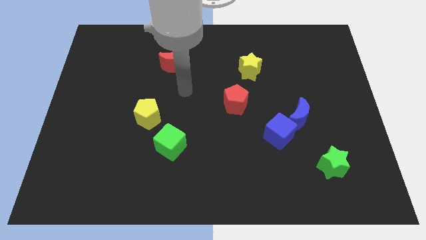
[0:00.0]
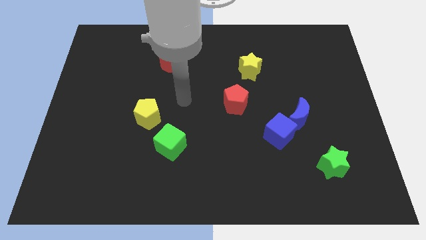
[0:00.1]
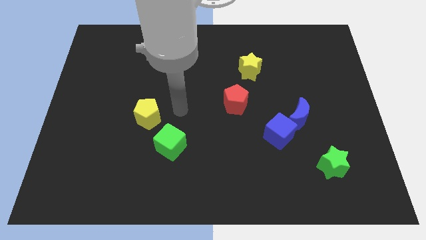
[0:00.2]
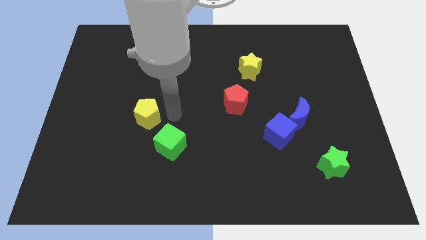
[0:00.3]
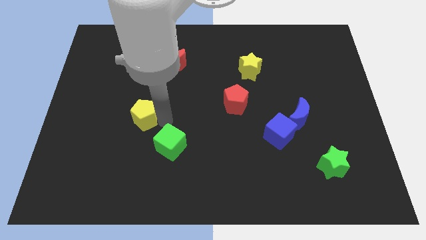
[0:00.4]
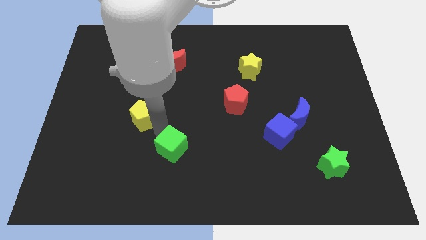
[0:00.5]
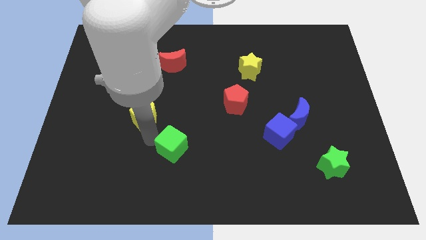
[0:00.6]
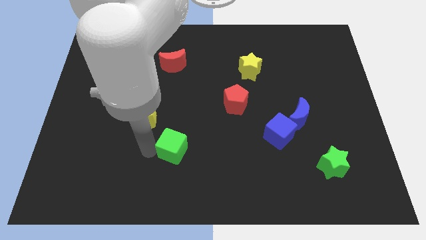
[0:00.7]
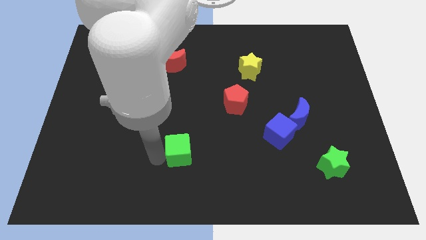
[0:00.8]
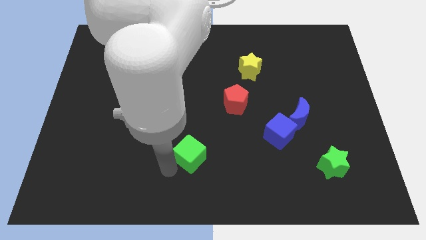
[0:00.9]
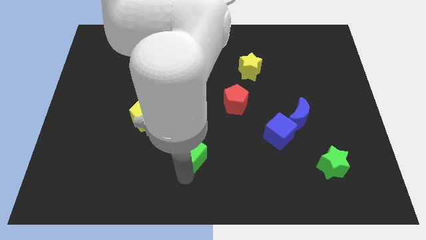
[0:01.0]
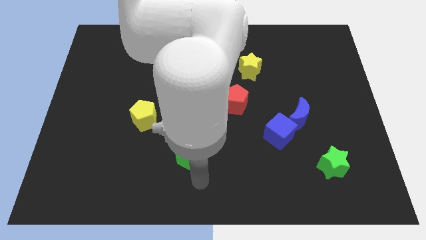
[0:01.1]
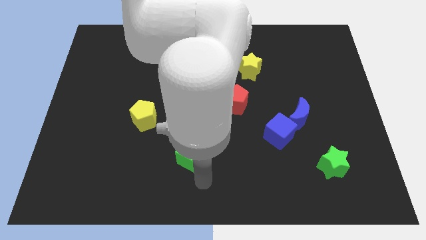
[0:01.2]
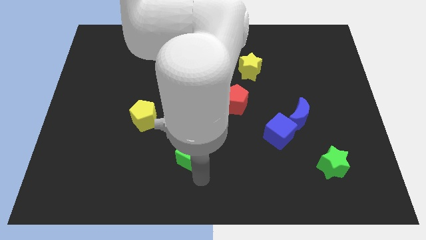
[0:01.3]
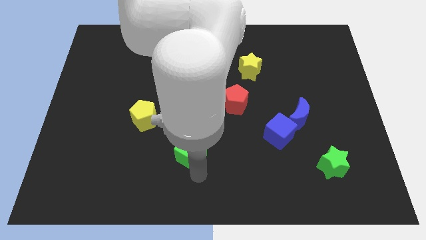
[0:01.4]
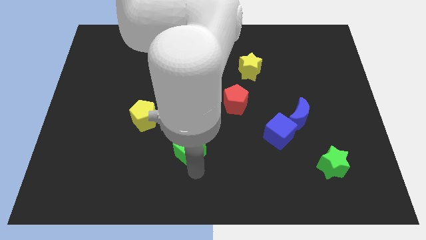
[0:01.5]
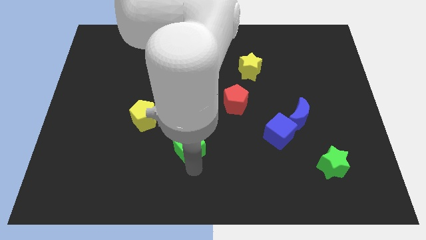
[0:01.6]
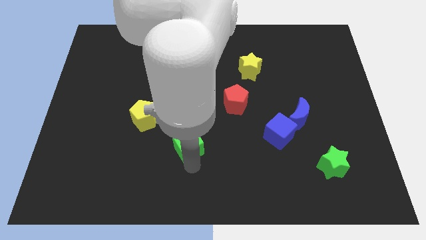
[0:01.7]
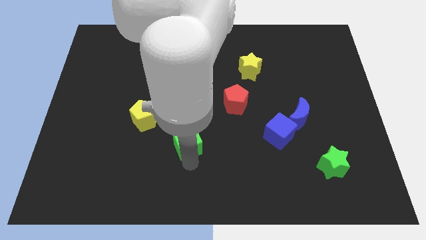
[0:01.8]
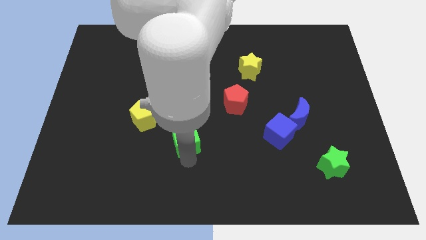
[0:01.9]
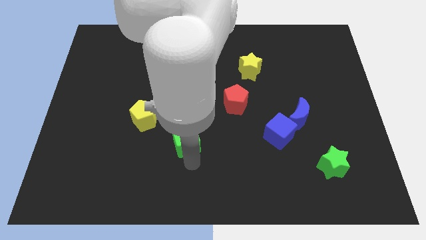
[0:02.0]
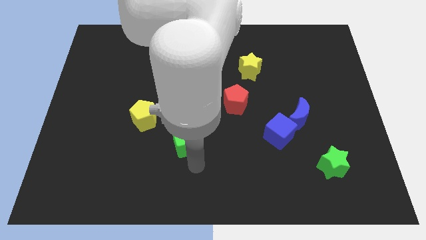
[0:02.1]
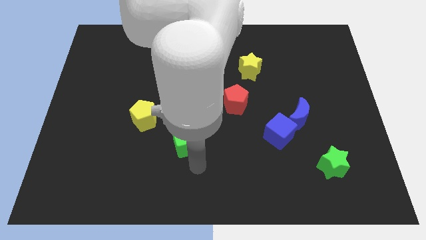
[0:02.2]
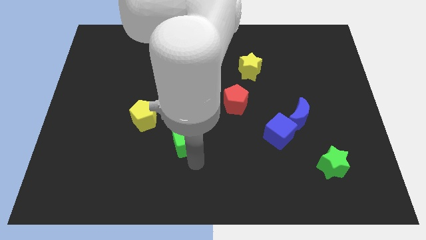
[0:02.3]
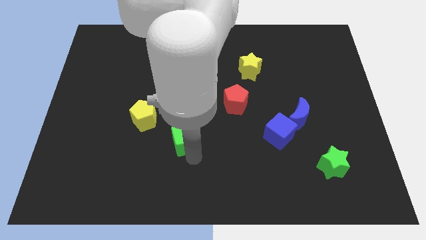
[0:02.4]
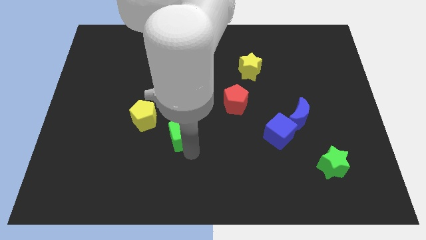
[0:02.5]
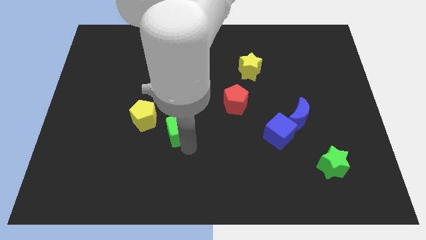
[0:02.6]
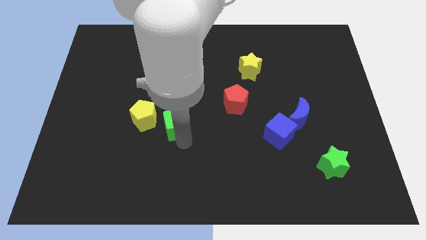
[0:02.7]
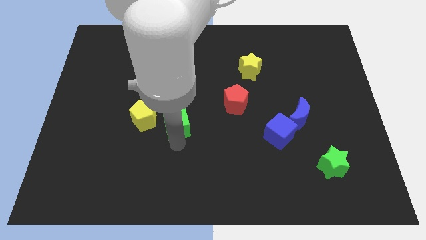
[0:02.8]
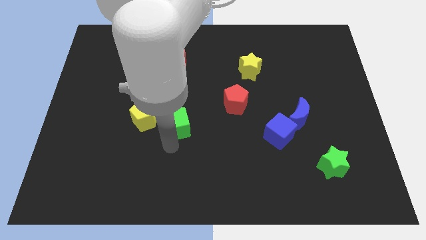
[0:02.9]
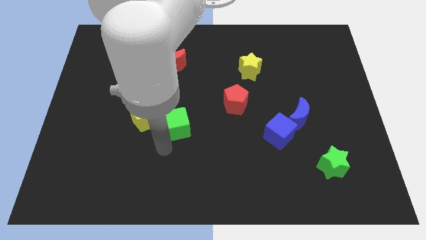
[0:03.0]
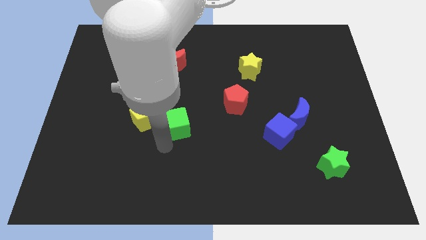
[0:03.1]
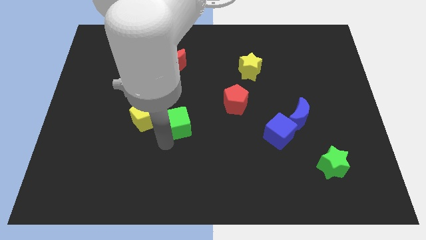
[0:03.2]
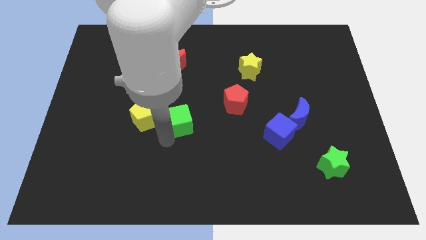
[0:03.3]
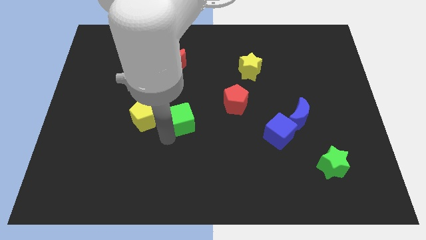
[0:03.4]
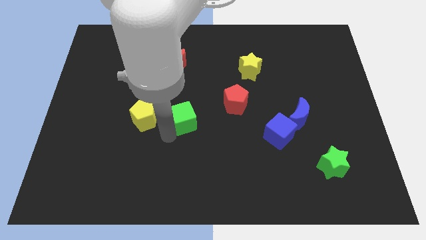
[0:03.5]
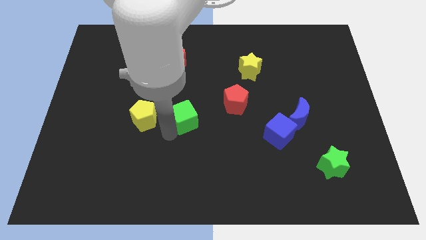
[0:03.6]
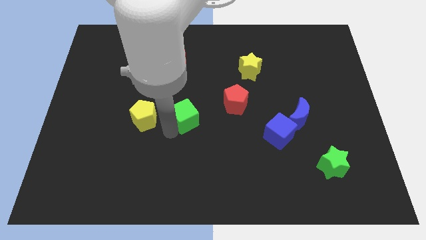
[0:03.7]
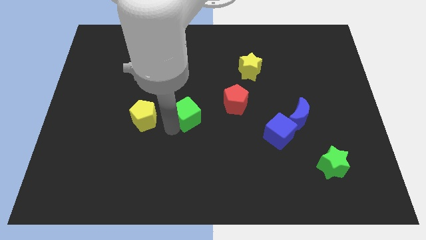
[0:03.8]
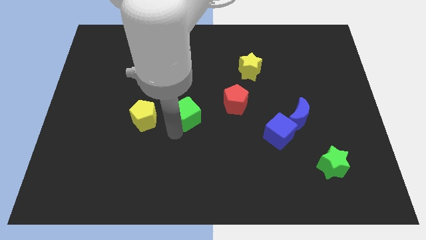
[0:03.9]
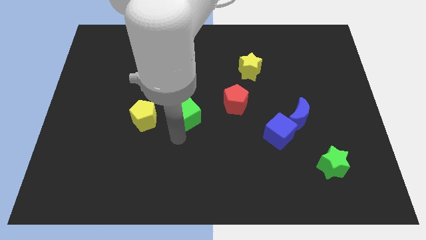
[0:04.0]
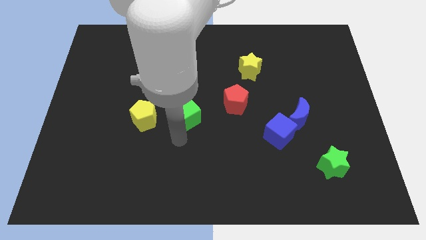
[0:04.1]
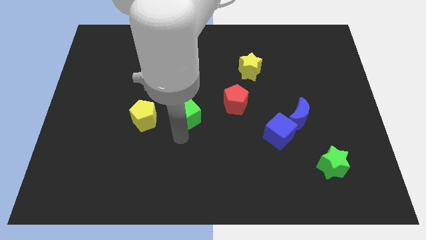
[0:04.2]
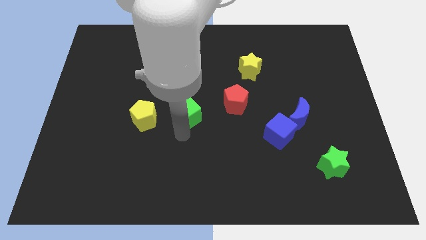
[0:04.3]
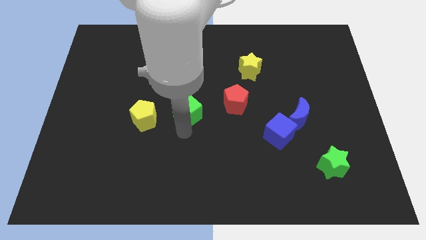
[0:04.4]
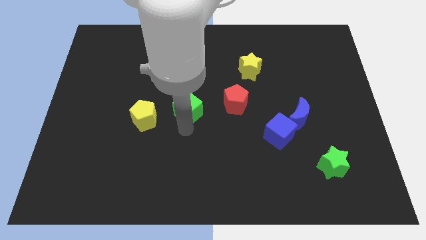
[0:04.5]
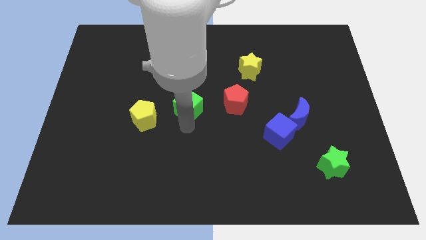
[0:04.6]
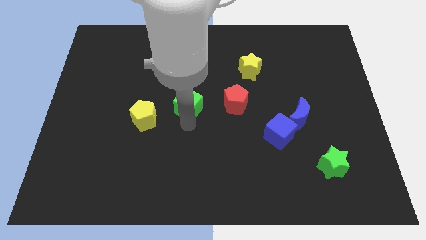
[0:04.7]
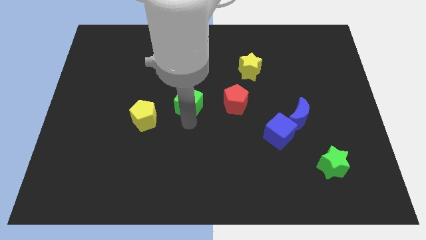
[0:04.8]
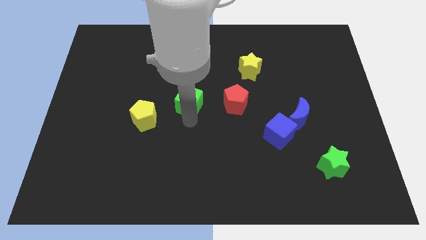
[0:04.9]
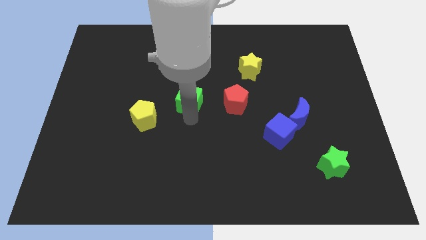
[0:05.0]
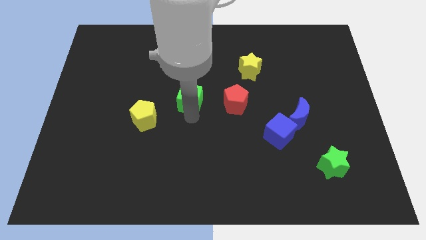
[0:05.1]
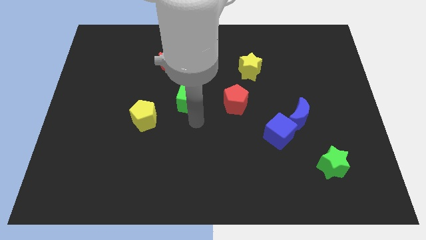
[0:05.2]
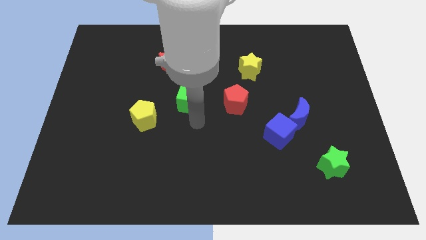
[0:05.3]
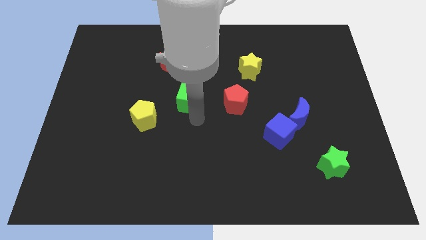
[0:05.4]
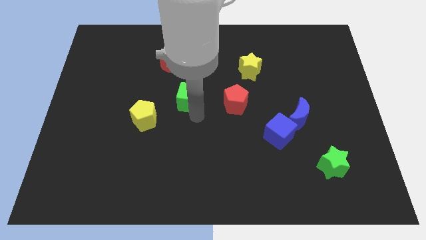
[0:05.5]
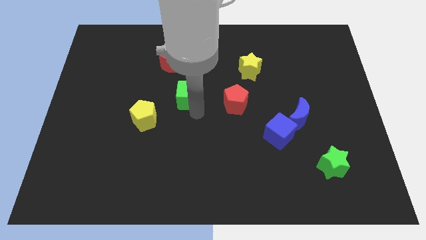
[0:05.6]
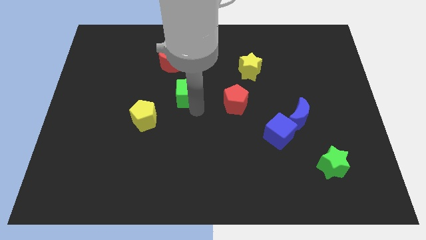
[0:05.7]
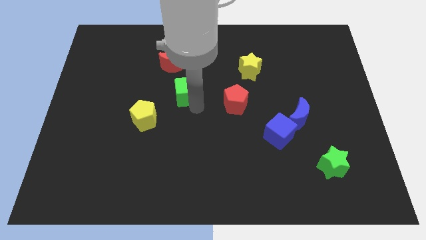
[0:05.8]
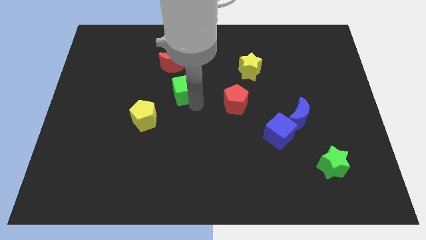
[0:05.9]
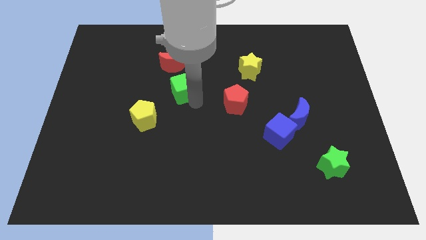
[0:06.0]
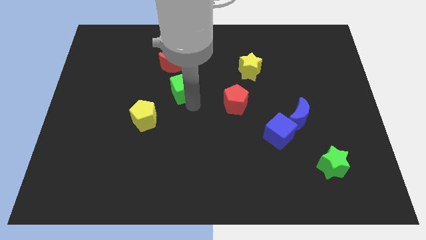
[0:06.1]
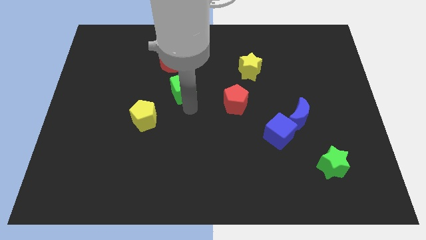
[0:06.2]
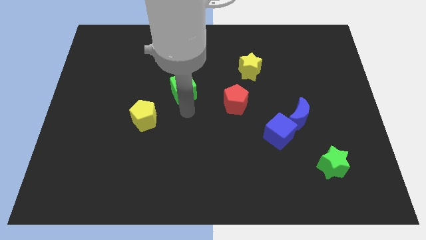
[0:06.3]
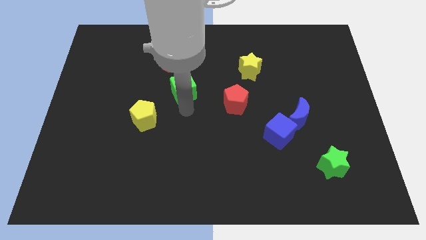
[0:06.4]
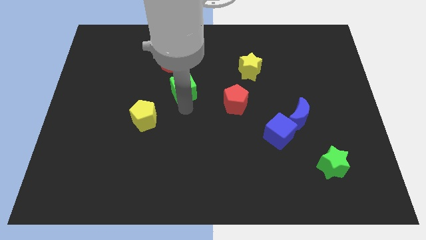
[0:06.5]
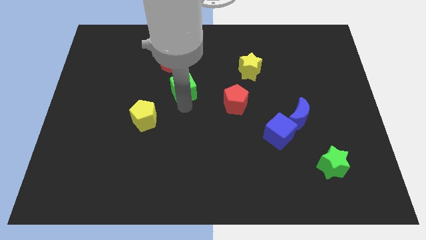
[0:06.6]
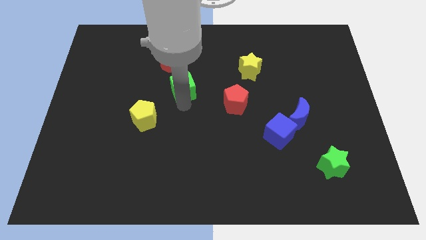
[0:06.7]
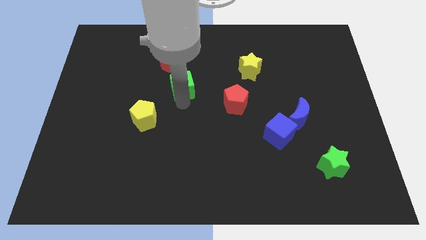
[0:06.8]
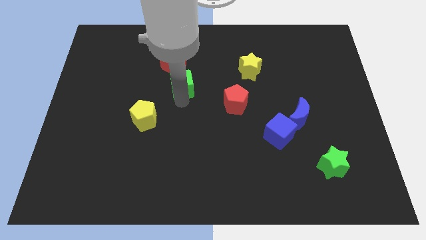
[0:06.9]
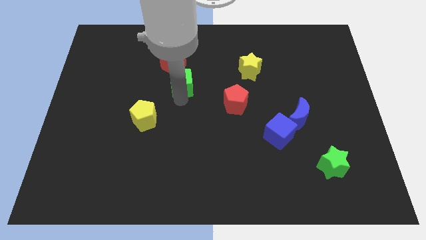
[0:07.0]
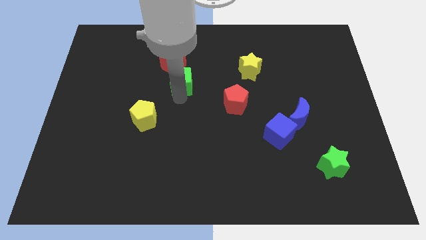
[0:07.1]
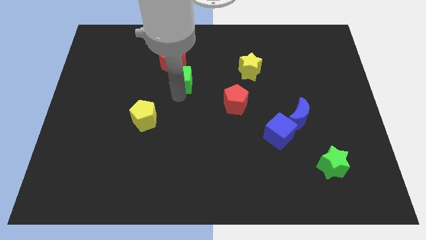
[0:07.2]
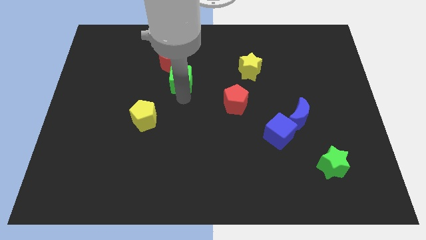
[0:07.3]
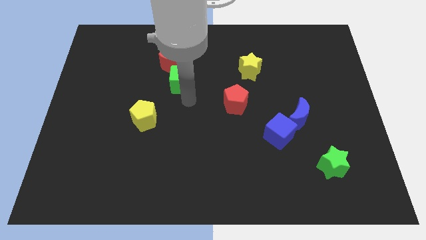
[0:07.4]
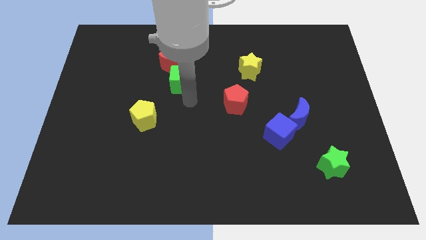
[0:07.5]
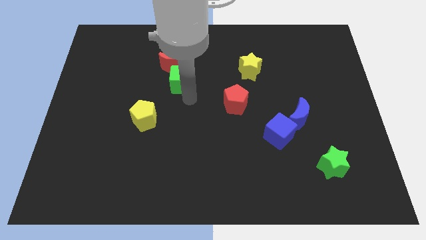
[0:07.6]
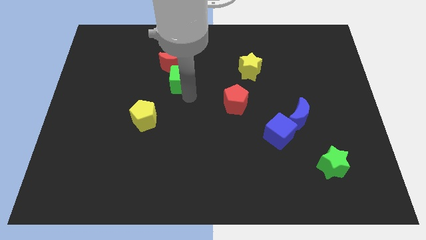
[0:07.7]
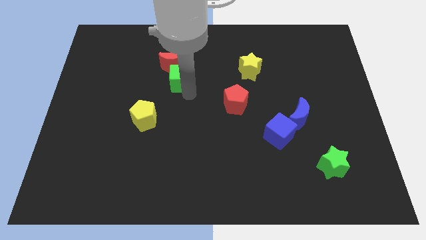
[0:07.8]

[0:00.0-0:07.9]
push the green cube to the red moon
